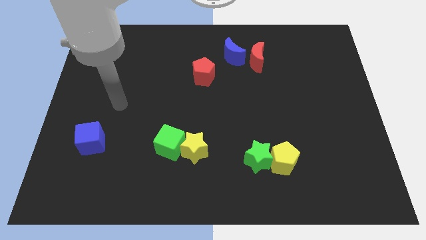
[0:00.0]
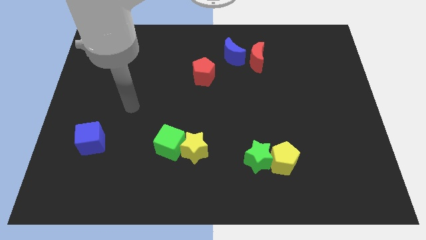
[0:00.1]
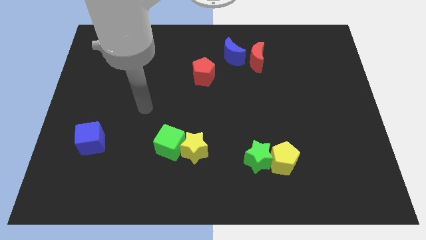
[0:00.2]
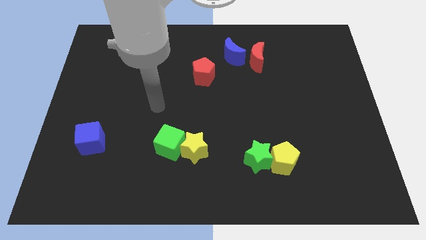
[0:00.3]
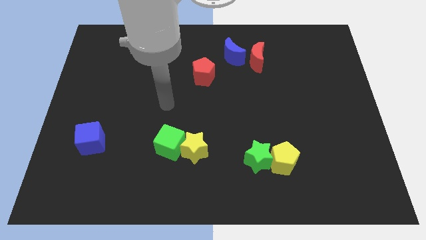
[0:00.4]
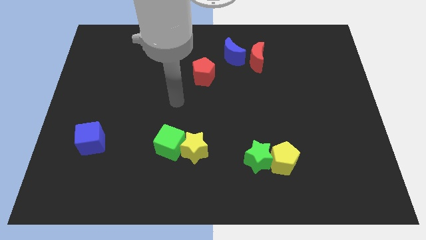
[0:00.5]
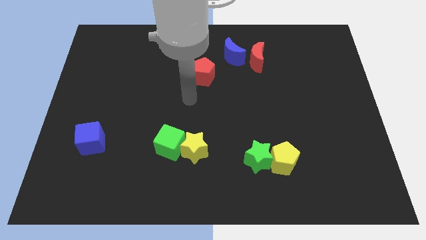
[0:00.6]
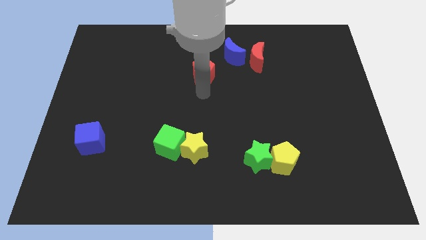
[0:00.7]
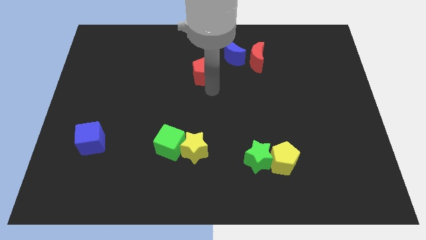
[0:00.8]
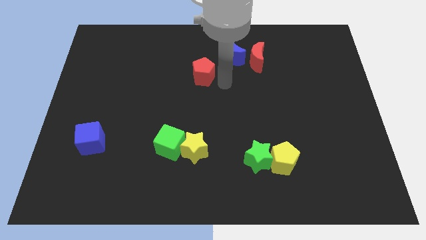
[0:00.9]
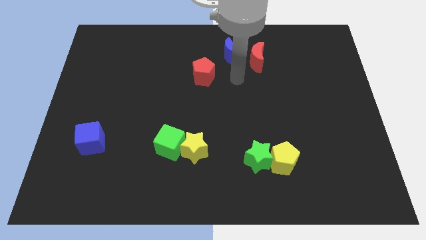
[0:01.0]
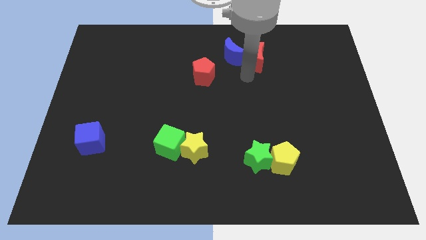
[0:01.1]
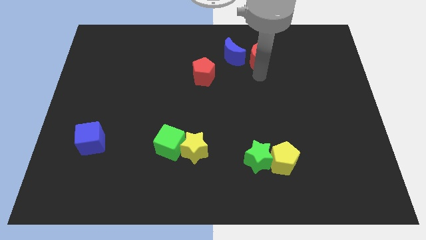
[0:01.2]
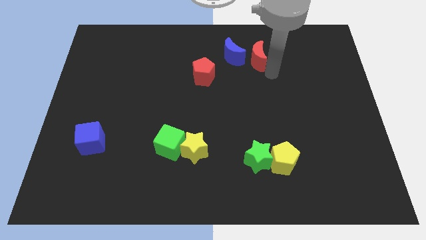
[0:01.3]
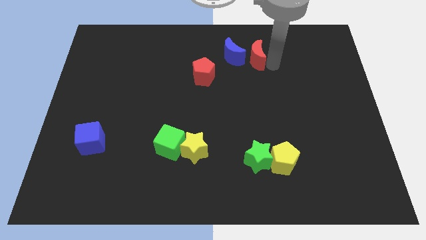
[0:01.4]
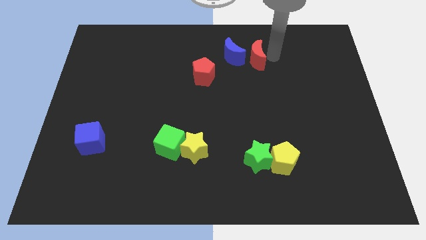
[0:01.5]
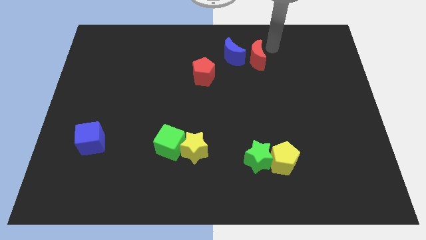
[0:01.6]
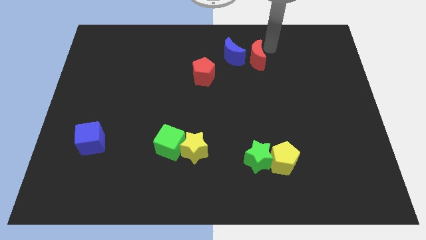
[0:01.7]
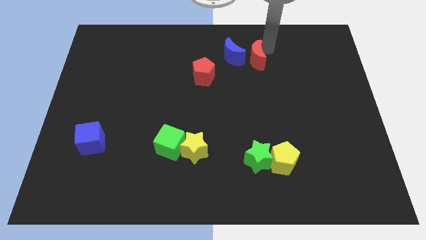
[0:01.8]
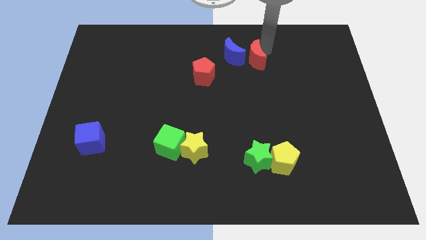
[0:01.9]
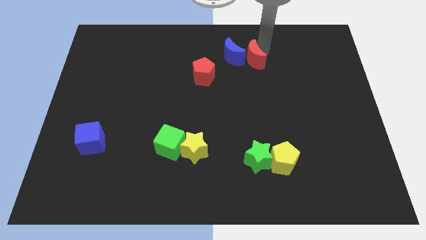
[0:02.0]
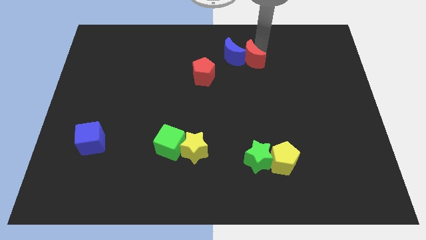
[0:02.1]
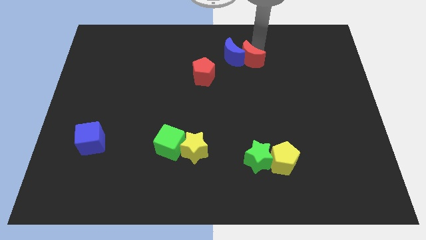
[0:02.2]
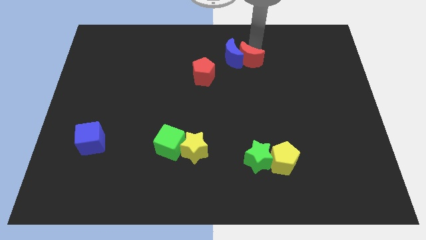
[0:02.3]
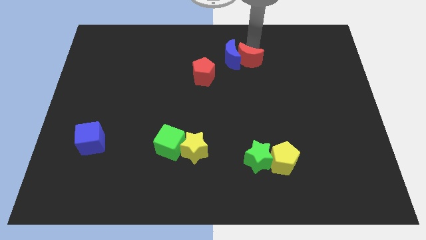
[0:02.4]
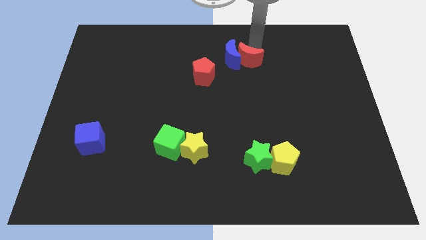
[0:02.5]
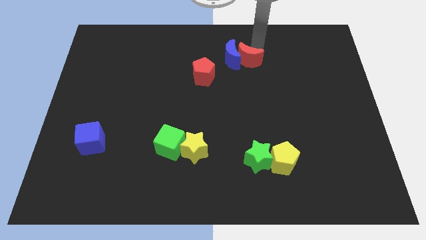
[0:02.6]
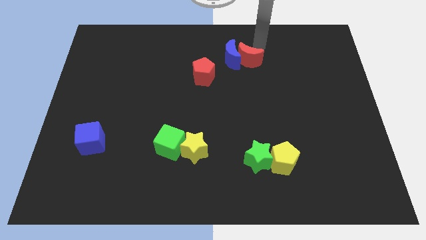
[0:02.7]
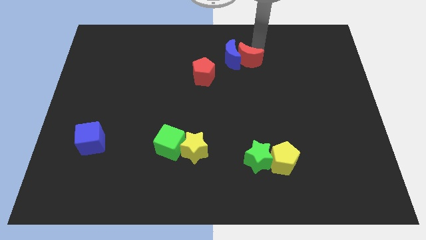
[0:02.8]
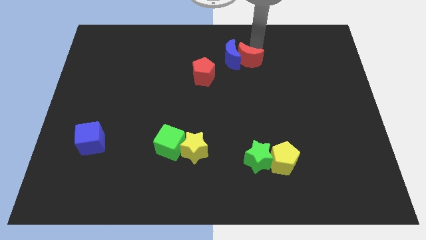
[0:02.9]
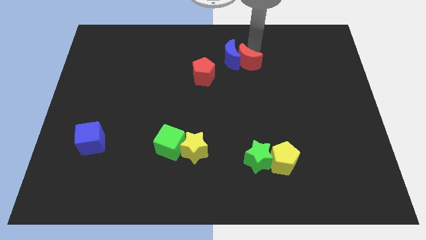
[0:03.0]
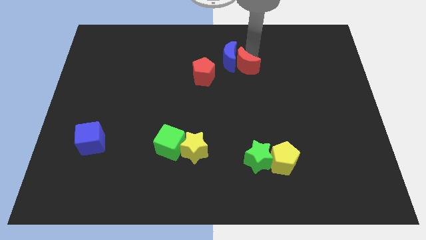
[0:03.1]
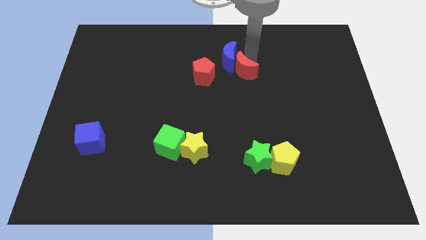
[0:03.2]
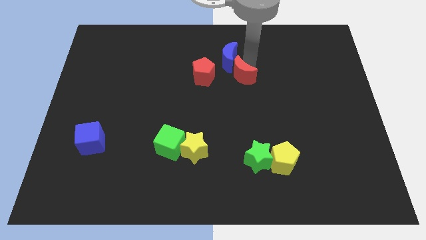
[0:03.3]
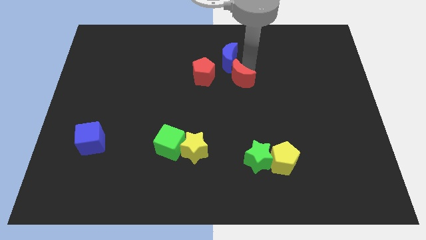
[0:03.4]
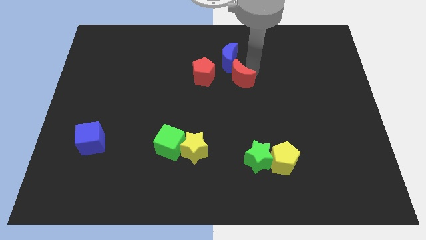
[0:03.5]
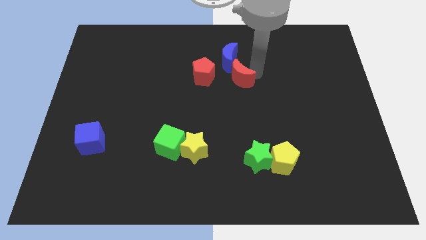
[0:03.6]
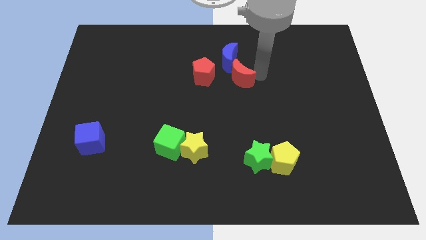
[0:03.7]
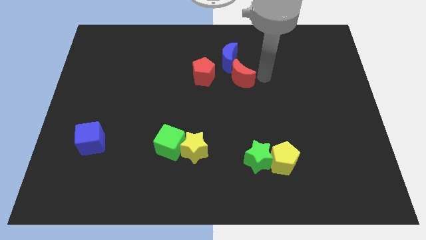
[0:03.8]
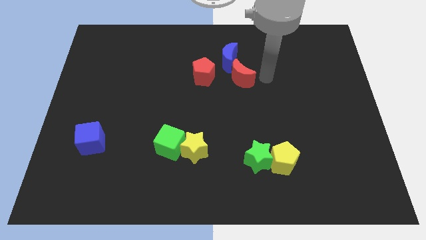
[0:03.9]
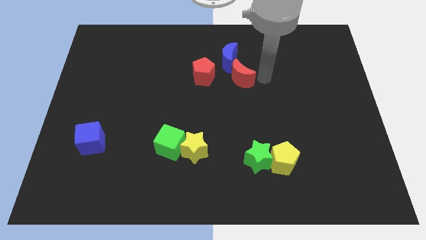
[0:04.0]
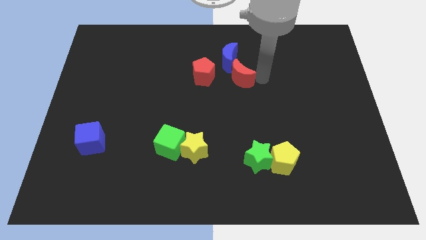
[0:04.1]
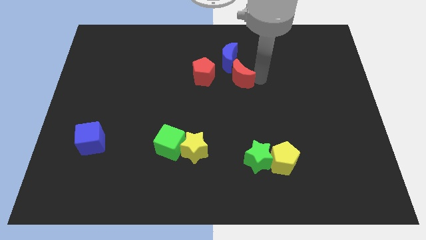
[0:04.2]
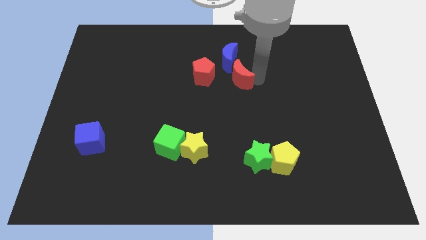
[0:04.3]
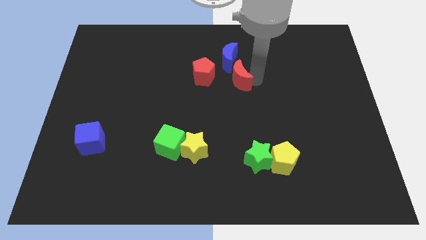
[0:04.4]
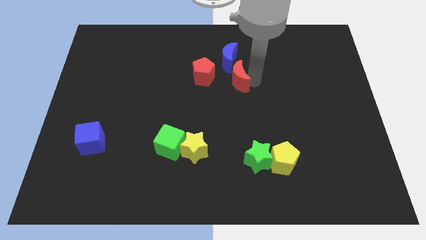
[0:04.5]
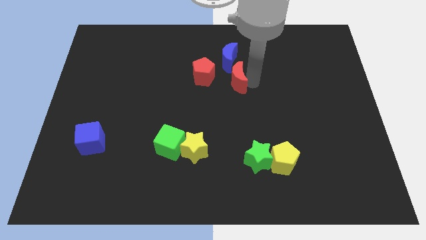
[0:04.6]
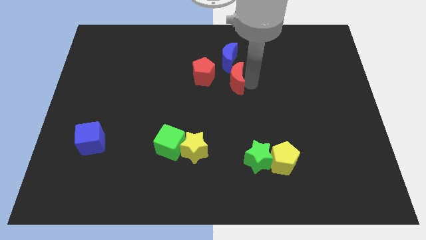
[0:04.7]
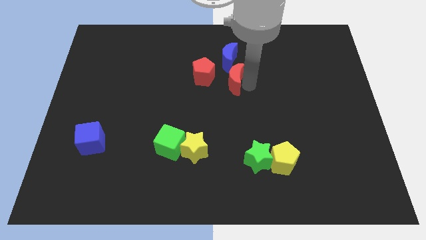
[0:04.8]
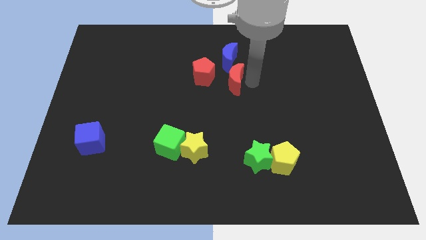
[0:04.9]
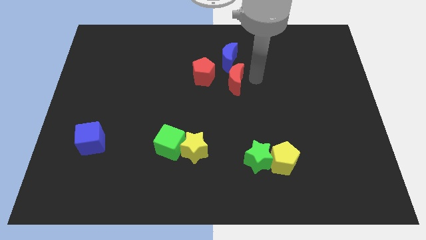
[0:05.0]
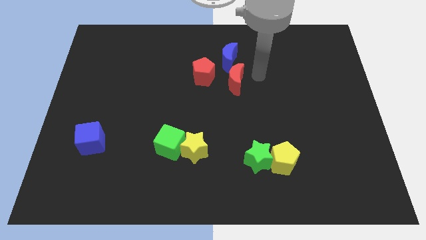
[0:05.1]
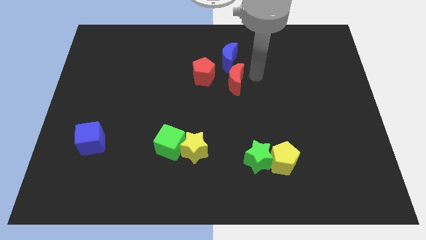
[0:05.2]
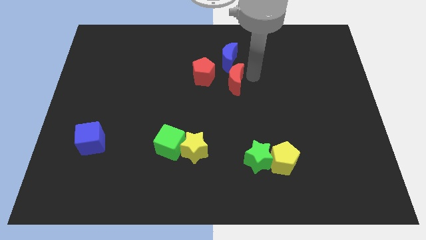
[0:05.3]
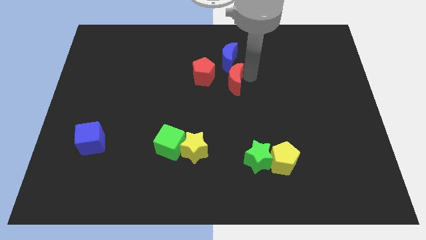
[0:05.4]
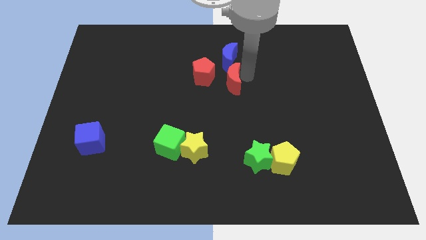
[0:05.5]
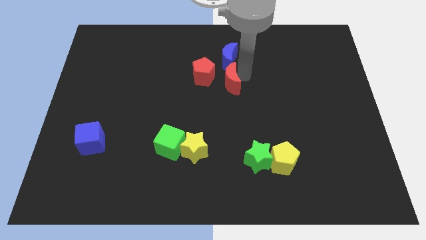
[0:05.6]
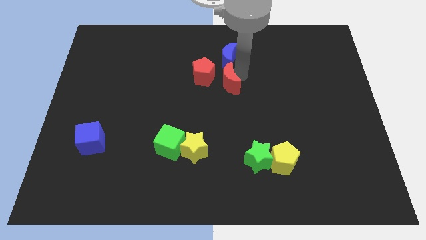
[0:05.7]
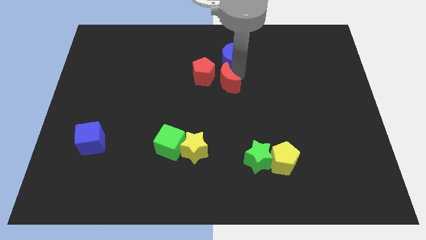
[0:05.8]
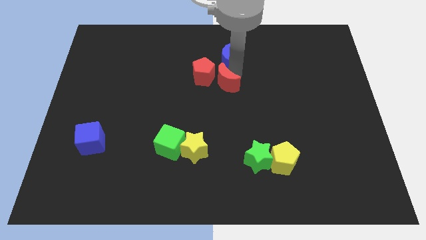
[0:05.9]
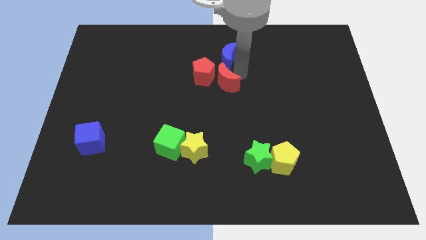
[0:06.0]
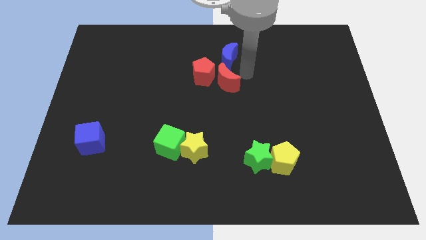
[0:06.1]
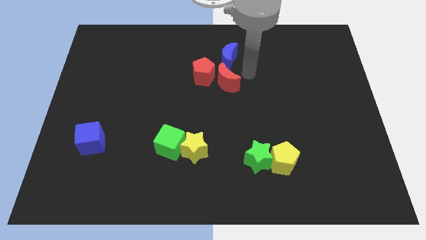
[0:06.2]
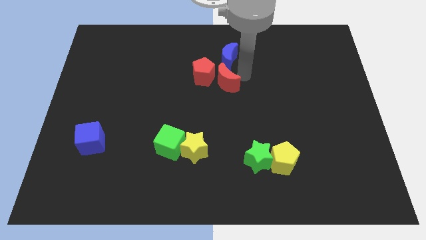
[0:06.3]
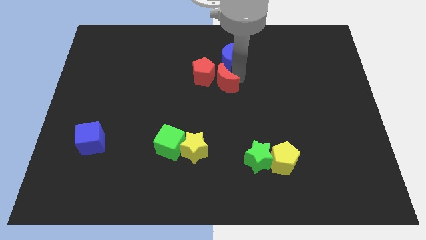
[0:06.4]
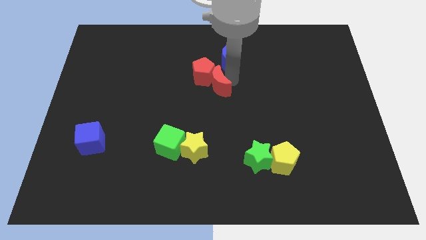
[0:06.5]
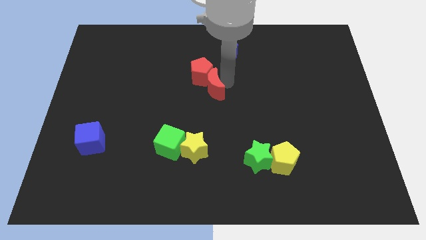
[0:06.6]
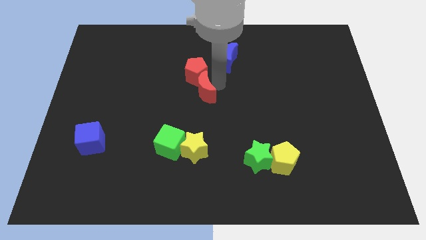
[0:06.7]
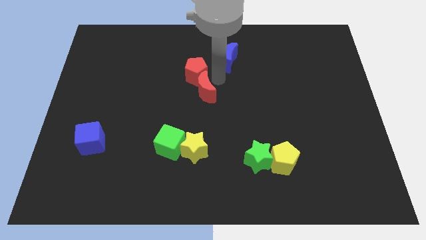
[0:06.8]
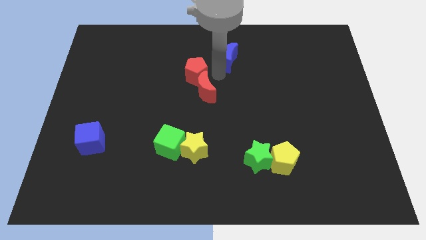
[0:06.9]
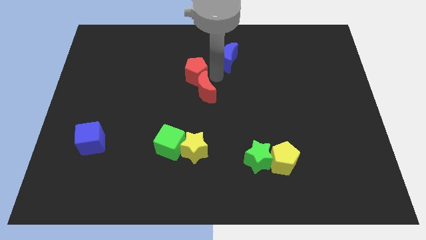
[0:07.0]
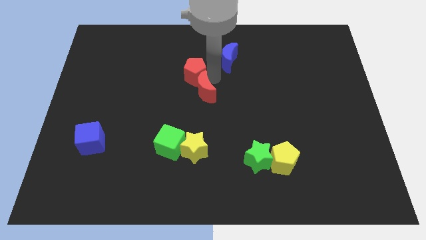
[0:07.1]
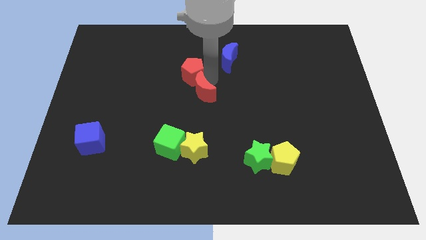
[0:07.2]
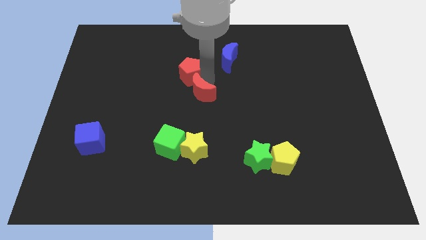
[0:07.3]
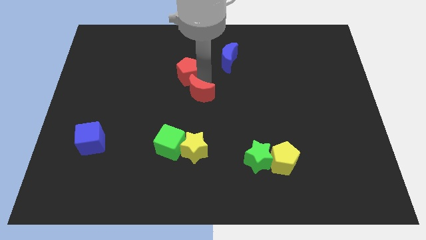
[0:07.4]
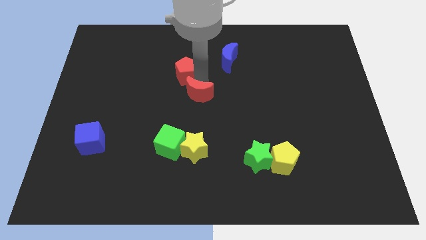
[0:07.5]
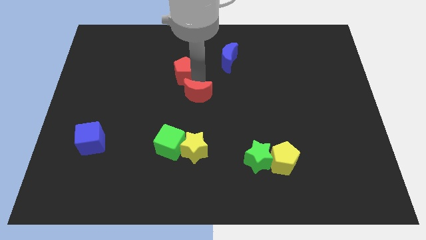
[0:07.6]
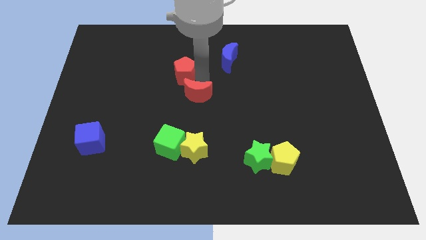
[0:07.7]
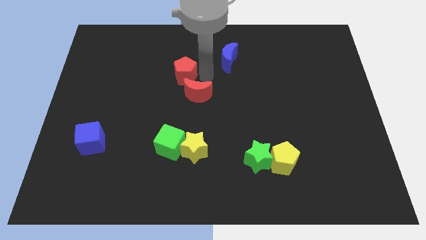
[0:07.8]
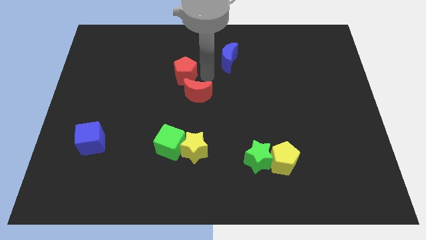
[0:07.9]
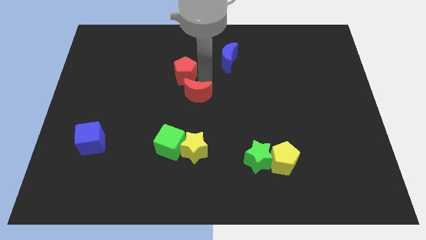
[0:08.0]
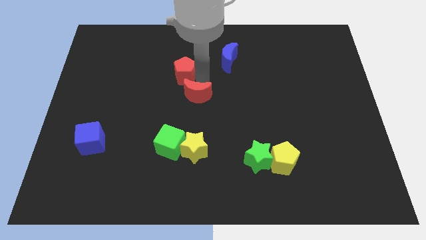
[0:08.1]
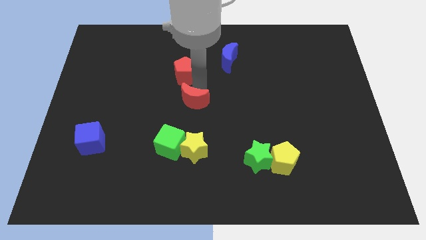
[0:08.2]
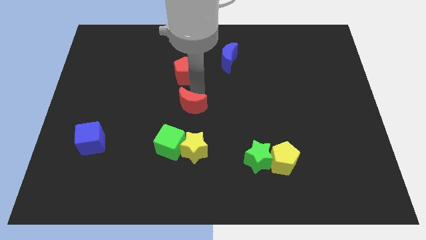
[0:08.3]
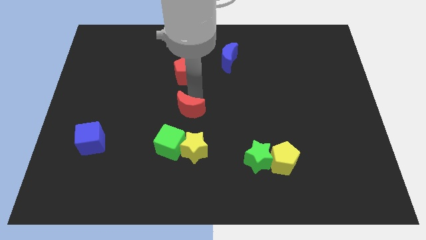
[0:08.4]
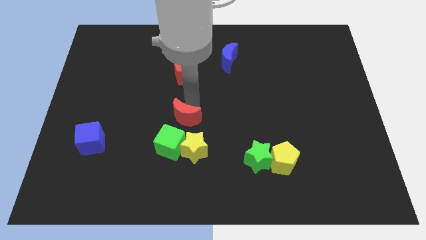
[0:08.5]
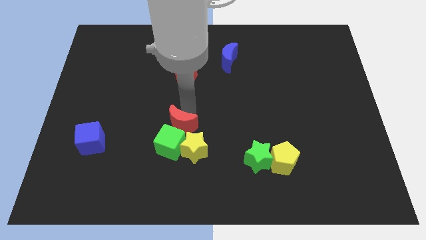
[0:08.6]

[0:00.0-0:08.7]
move the red moon next to the green cube
